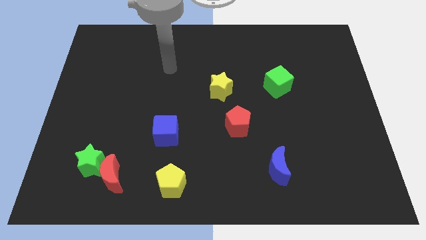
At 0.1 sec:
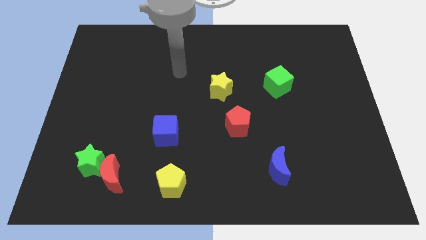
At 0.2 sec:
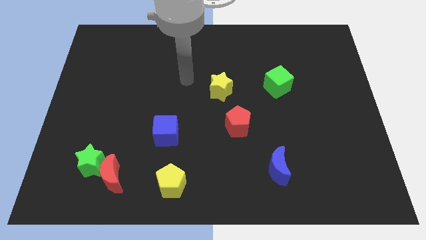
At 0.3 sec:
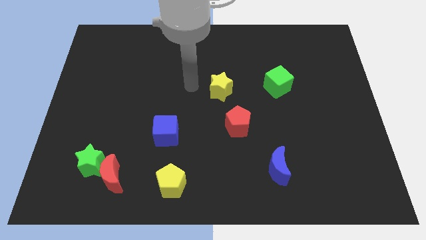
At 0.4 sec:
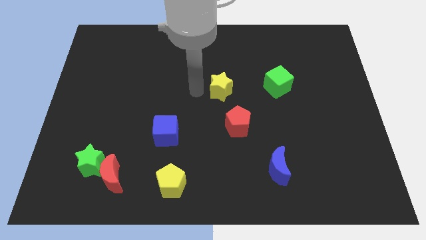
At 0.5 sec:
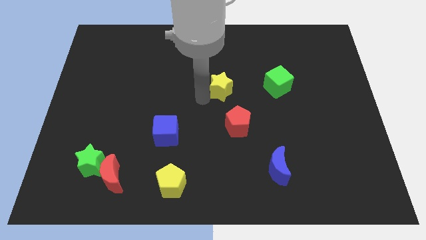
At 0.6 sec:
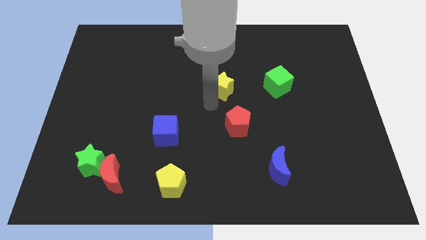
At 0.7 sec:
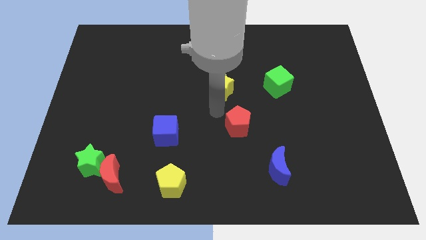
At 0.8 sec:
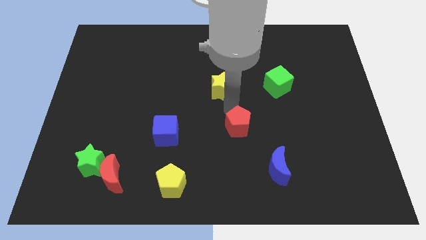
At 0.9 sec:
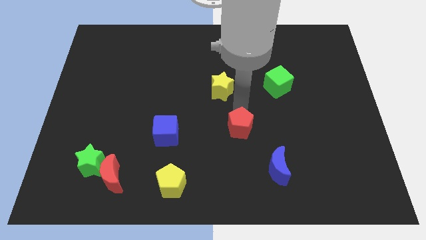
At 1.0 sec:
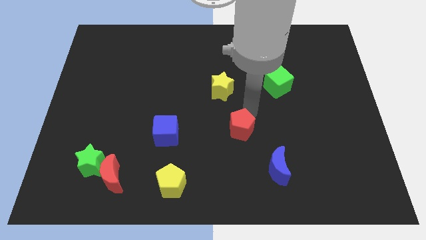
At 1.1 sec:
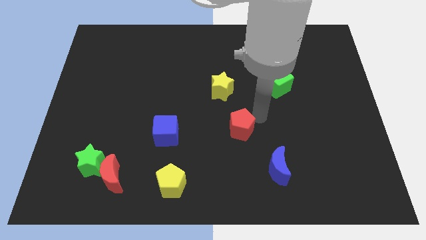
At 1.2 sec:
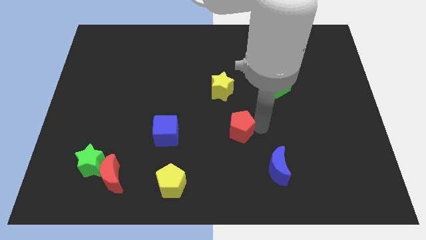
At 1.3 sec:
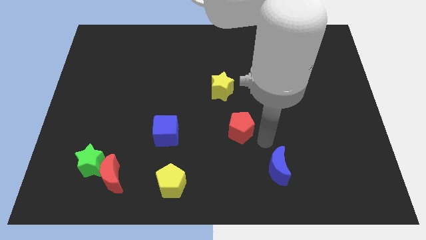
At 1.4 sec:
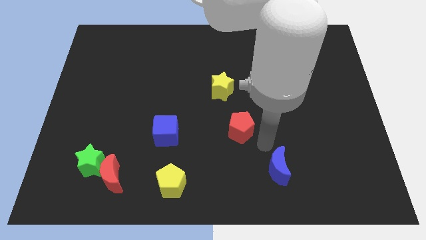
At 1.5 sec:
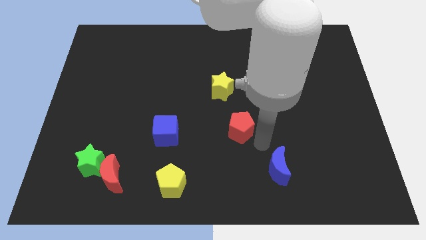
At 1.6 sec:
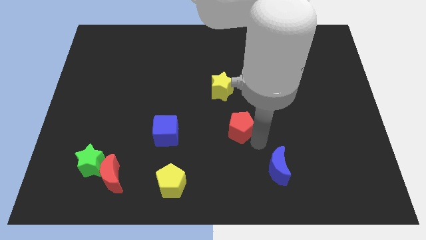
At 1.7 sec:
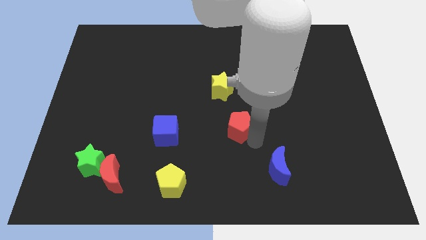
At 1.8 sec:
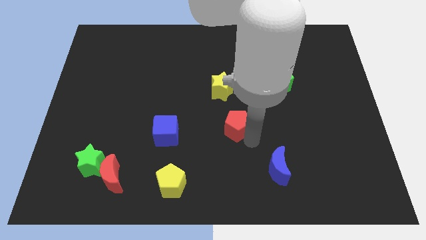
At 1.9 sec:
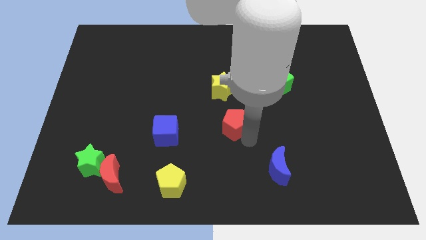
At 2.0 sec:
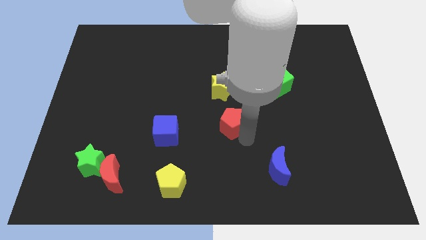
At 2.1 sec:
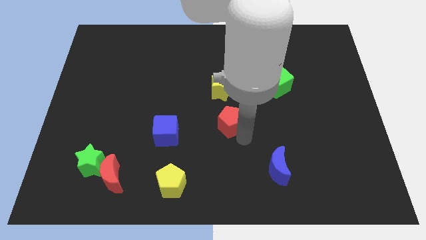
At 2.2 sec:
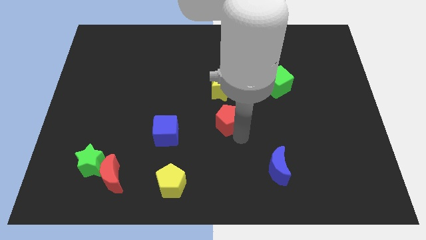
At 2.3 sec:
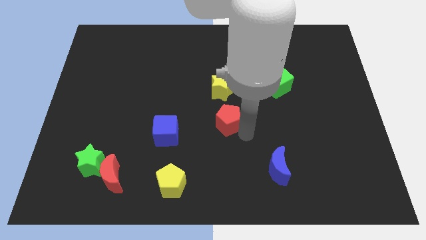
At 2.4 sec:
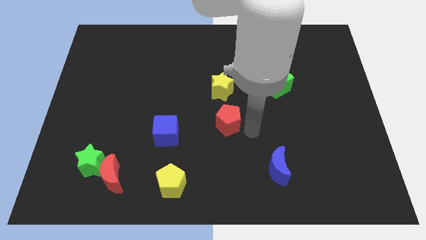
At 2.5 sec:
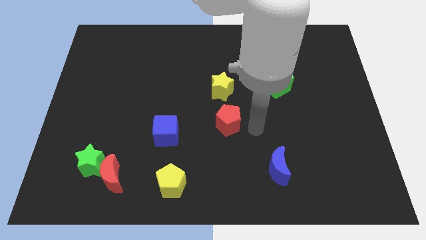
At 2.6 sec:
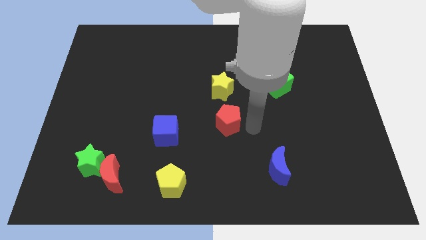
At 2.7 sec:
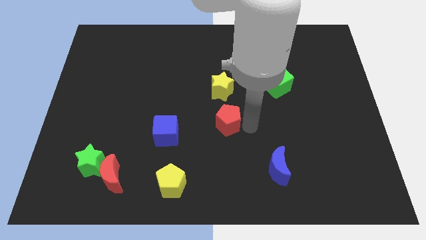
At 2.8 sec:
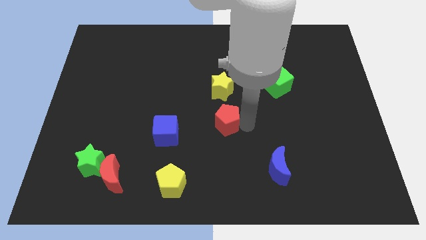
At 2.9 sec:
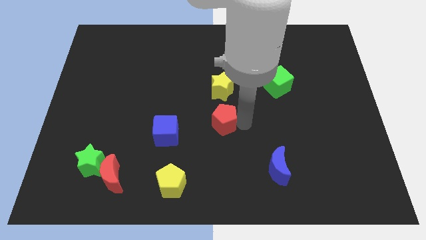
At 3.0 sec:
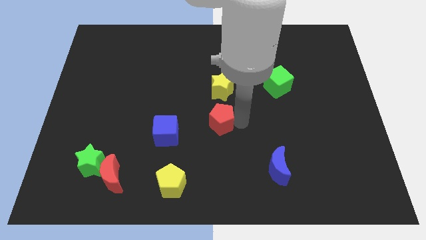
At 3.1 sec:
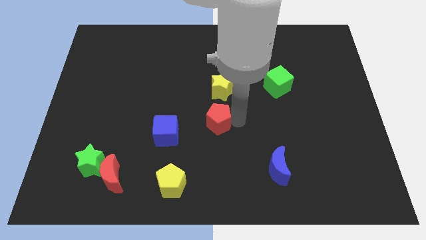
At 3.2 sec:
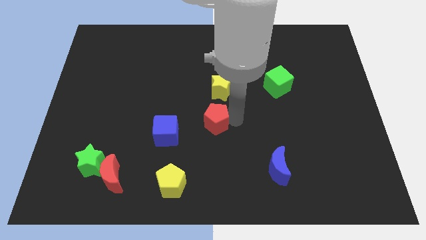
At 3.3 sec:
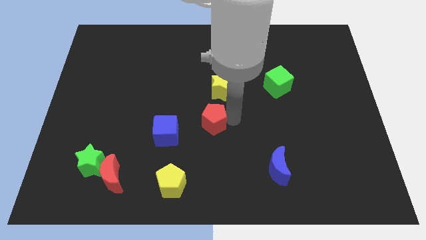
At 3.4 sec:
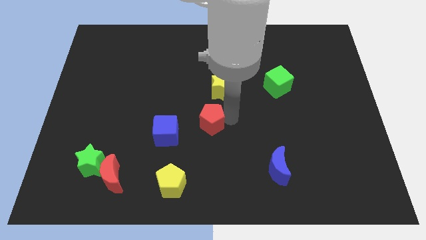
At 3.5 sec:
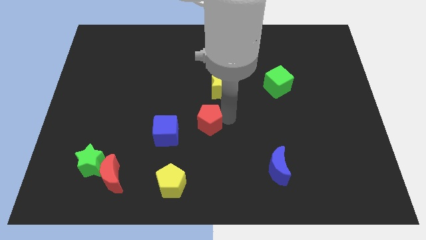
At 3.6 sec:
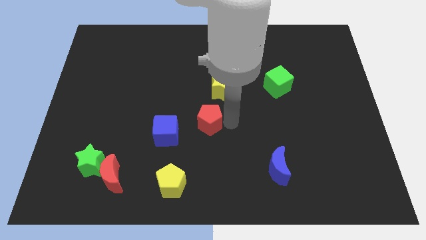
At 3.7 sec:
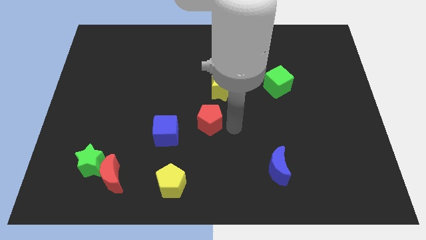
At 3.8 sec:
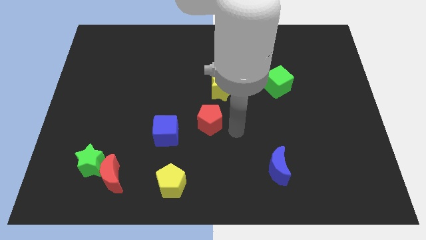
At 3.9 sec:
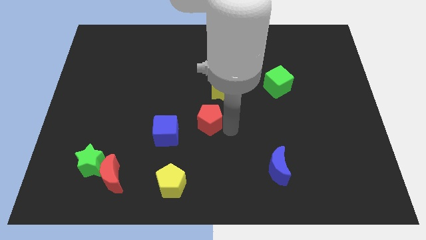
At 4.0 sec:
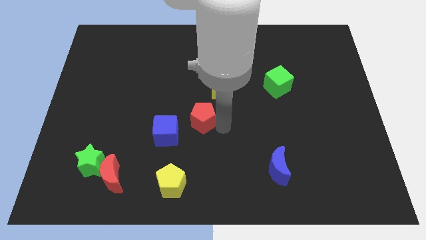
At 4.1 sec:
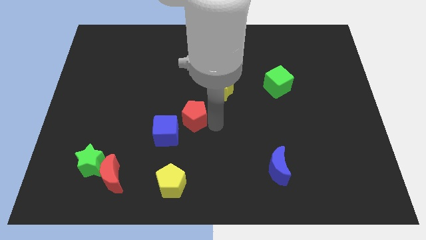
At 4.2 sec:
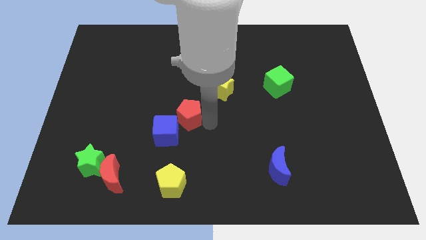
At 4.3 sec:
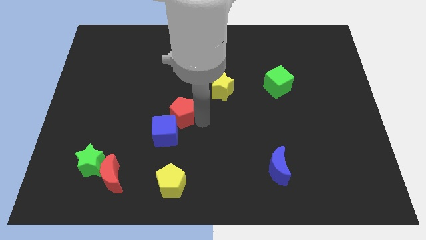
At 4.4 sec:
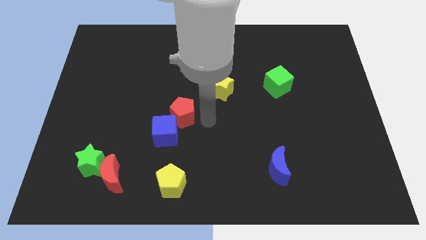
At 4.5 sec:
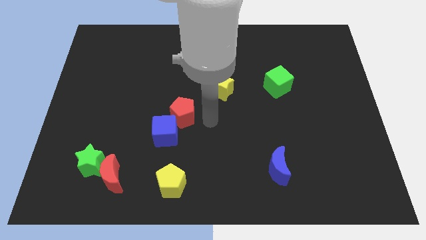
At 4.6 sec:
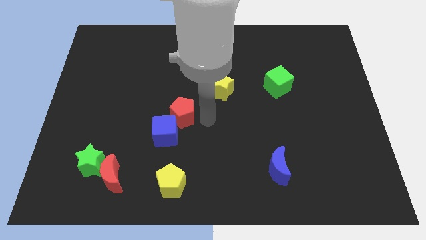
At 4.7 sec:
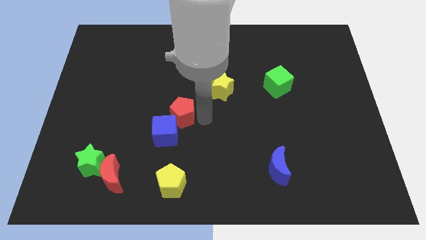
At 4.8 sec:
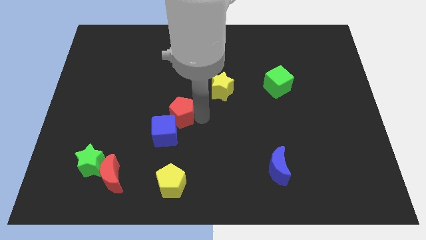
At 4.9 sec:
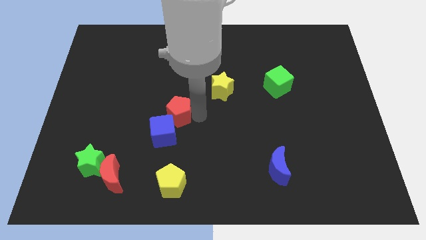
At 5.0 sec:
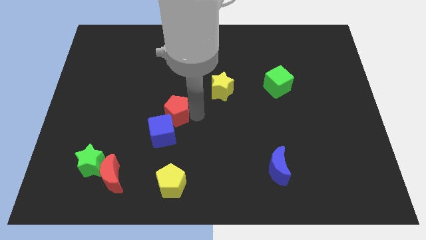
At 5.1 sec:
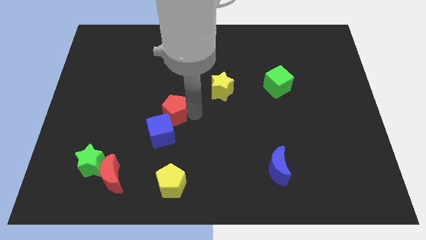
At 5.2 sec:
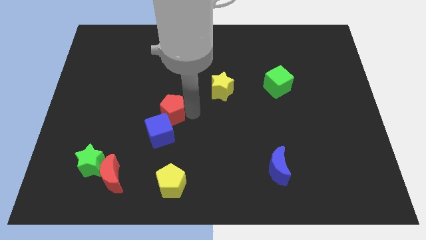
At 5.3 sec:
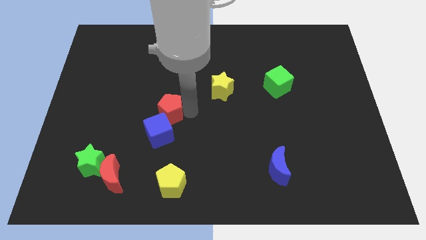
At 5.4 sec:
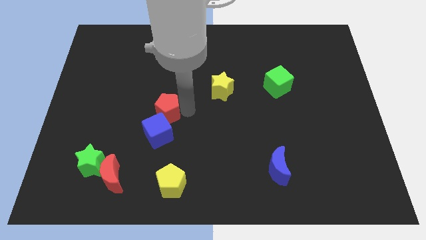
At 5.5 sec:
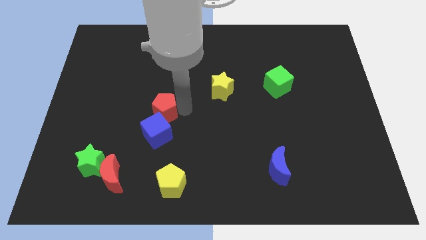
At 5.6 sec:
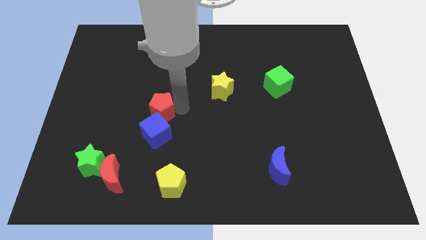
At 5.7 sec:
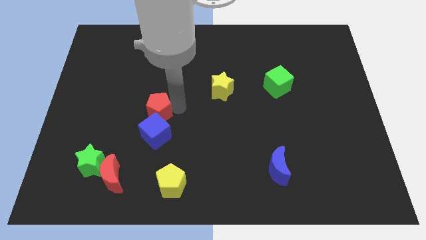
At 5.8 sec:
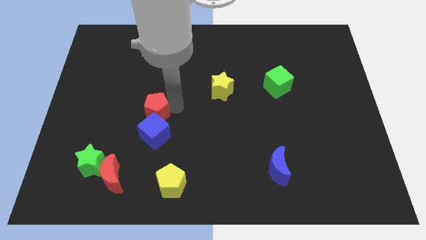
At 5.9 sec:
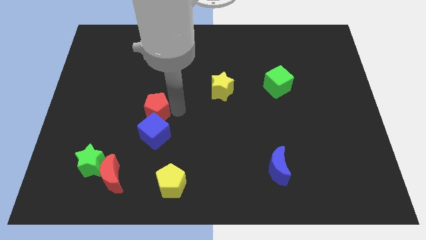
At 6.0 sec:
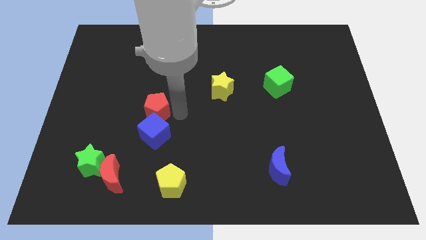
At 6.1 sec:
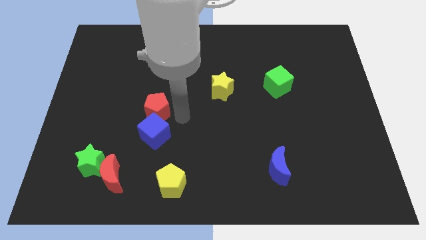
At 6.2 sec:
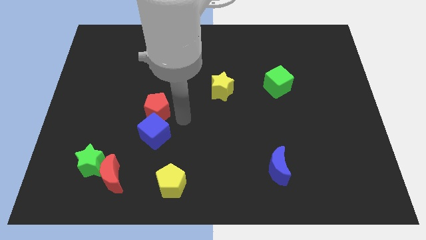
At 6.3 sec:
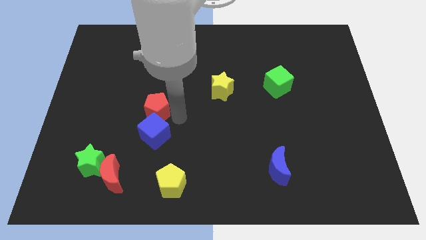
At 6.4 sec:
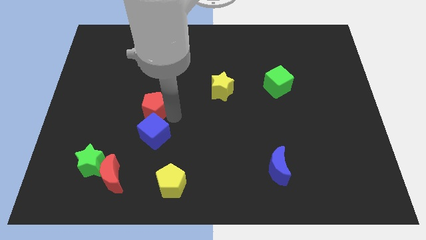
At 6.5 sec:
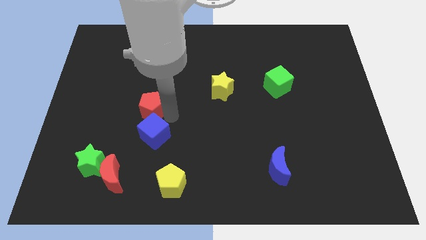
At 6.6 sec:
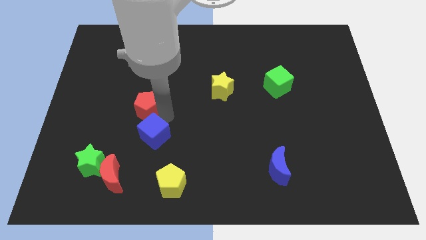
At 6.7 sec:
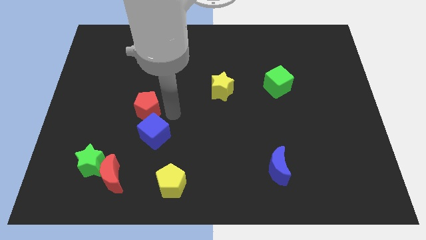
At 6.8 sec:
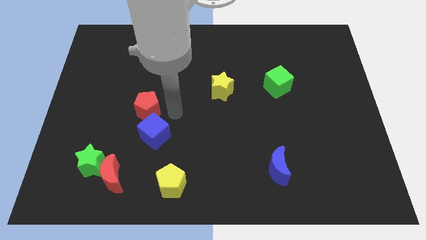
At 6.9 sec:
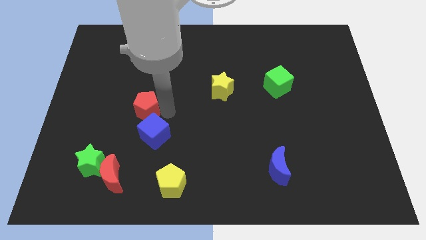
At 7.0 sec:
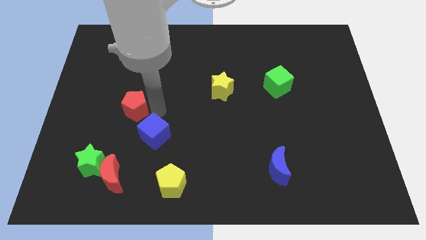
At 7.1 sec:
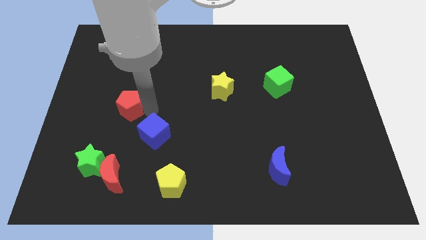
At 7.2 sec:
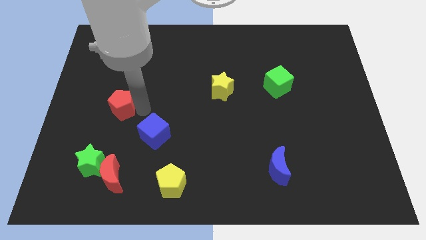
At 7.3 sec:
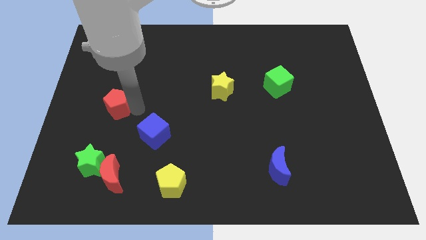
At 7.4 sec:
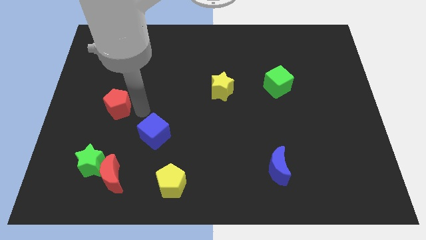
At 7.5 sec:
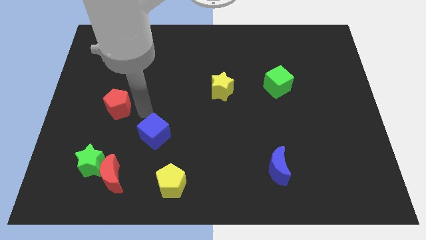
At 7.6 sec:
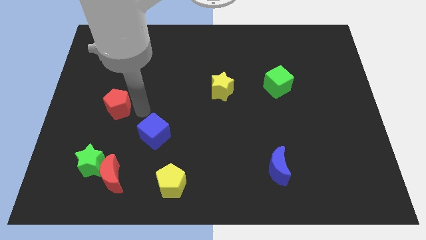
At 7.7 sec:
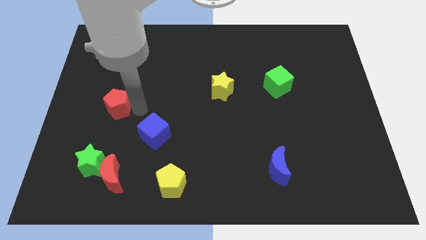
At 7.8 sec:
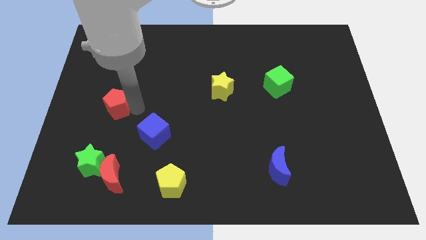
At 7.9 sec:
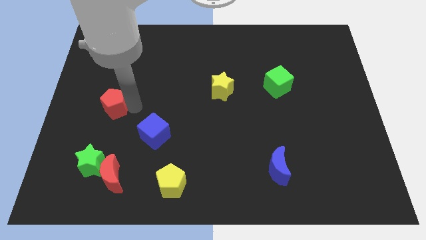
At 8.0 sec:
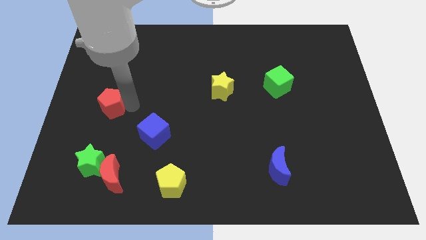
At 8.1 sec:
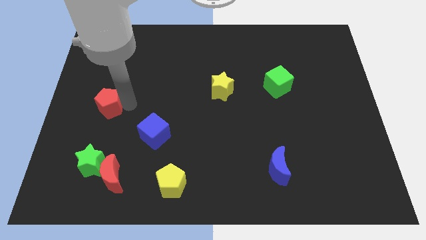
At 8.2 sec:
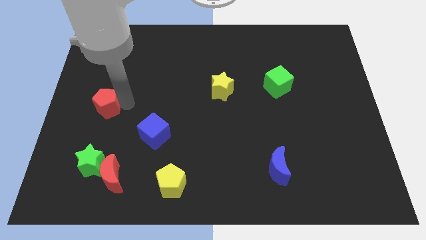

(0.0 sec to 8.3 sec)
put the red pentagon to the left side
